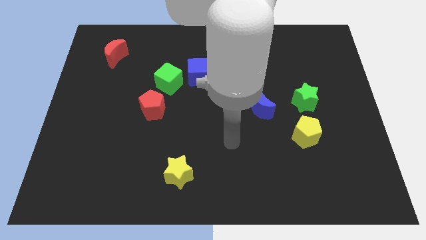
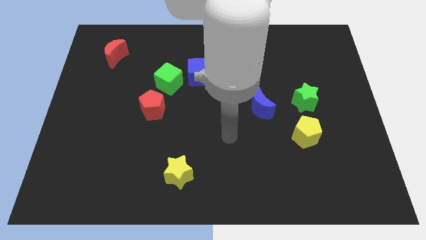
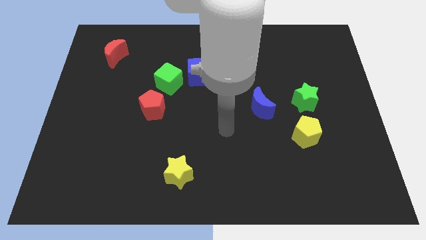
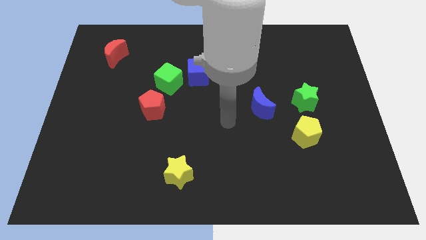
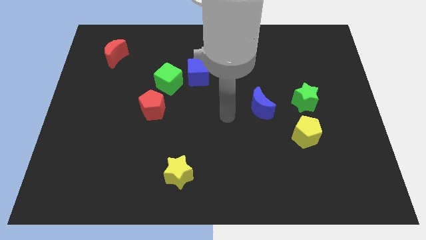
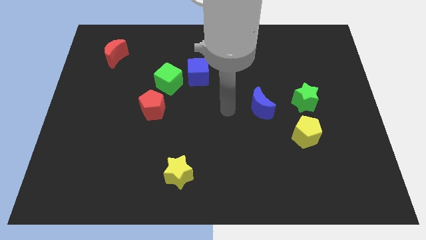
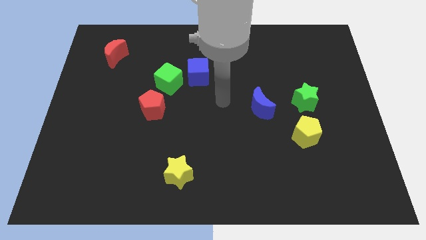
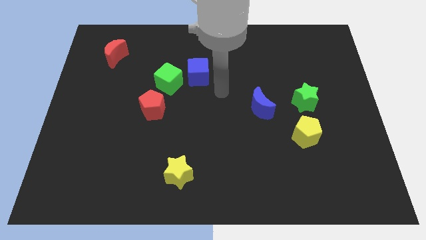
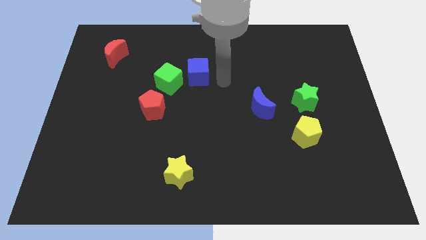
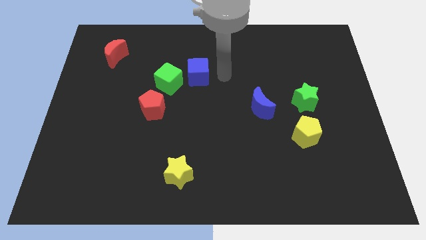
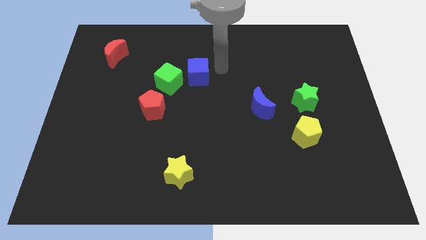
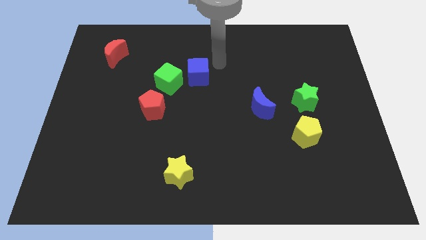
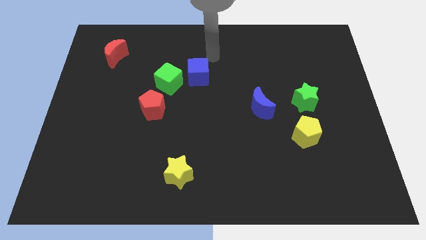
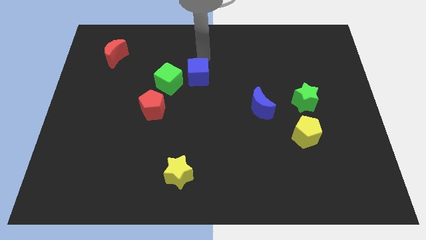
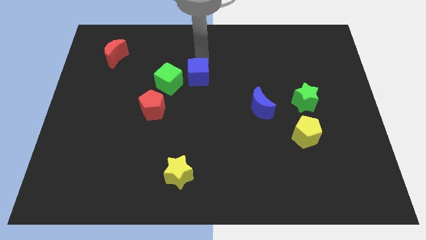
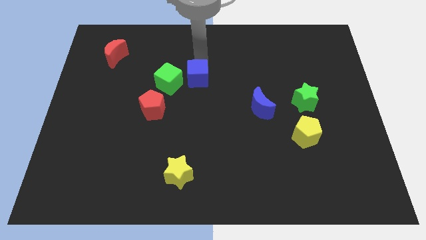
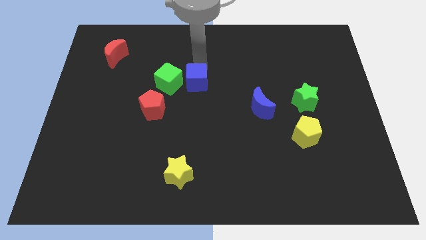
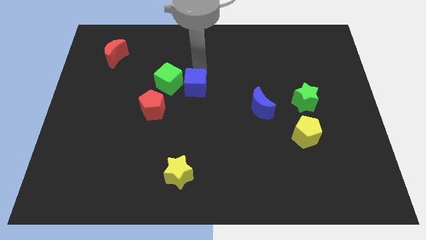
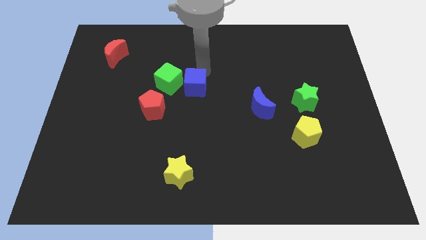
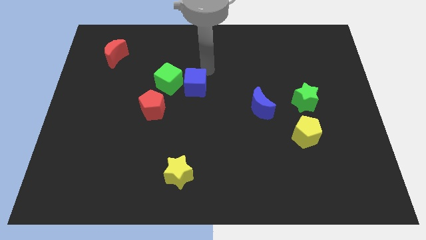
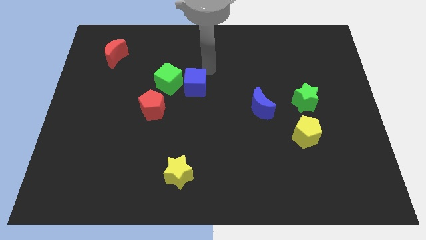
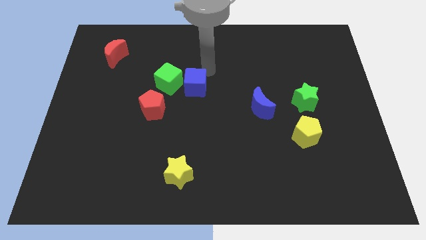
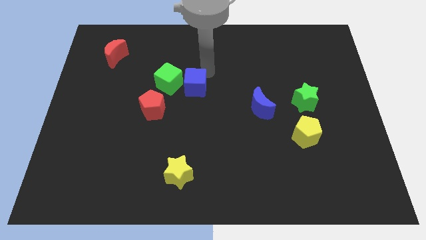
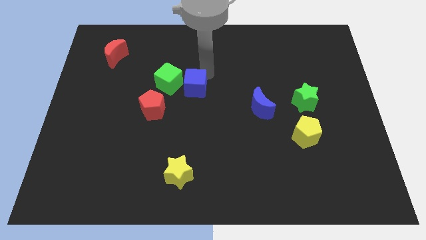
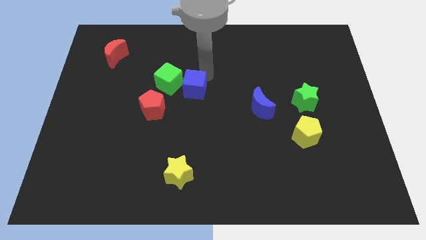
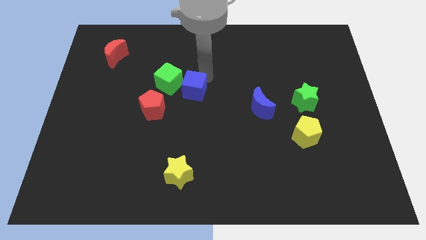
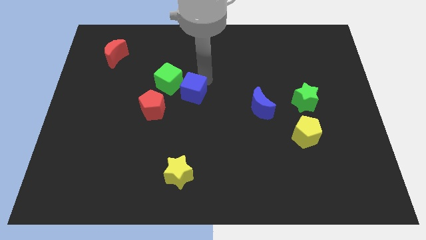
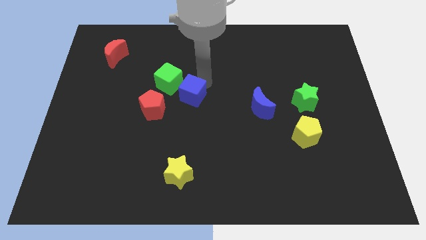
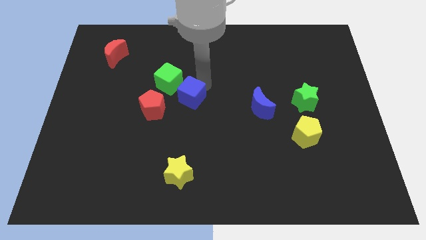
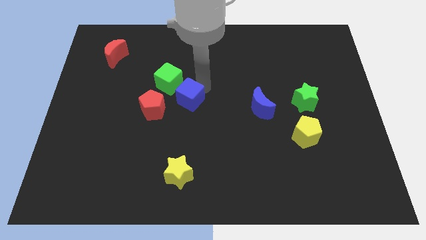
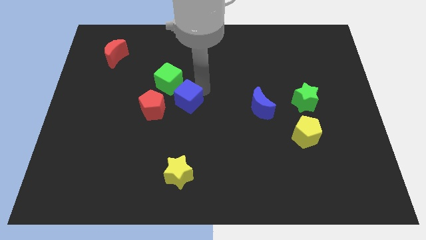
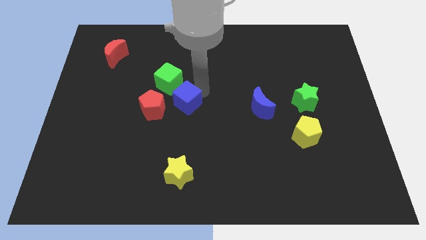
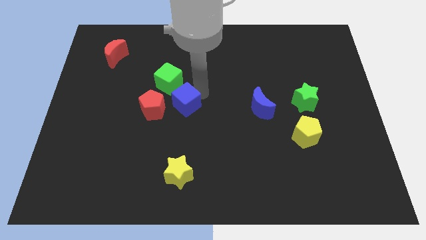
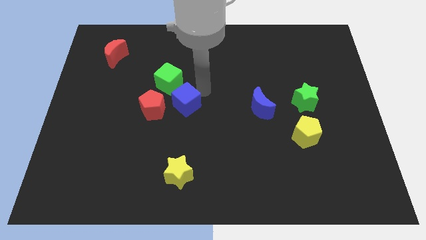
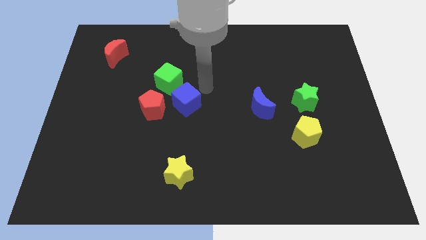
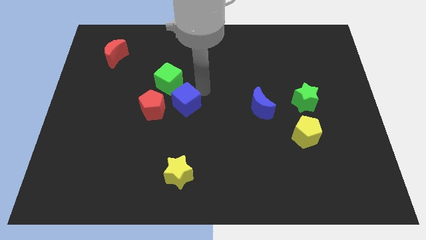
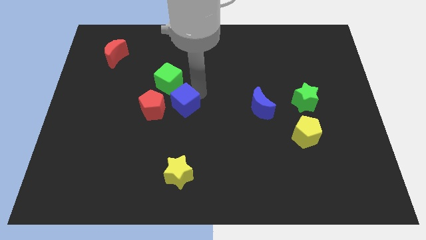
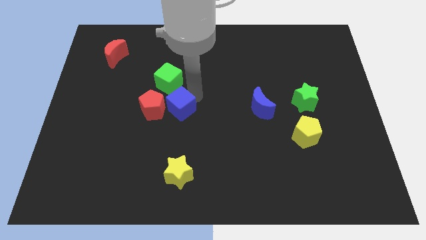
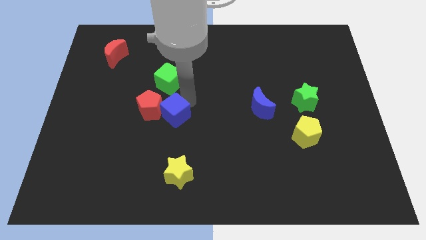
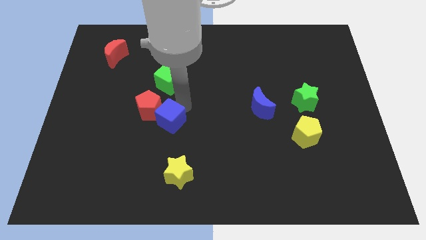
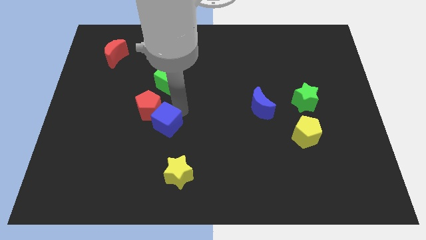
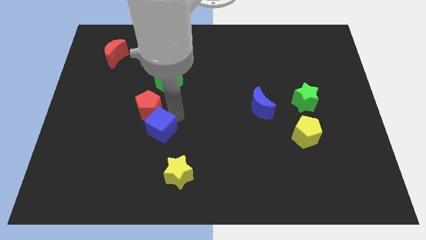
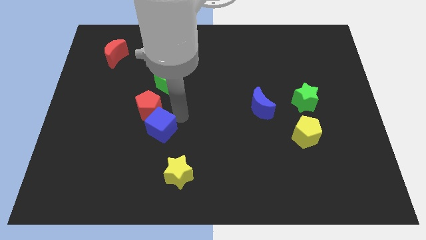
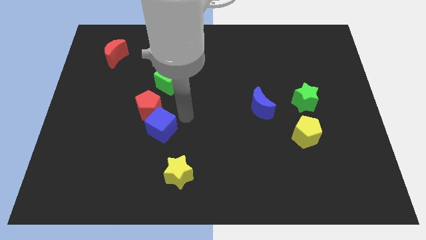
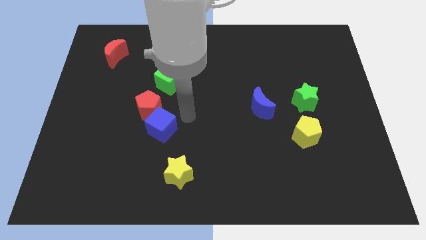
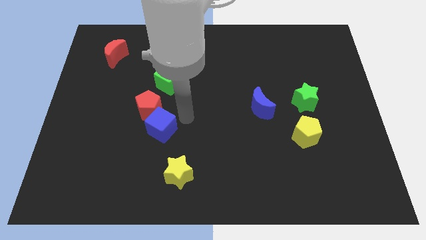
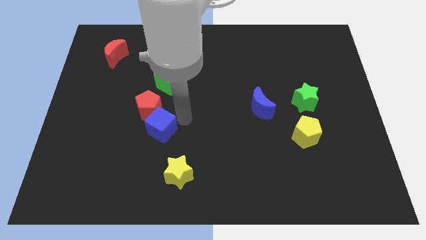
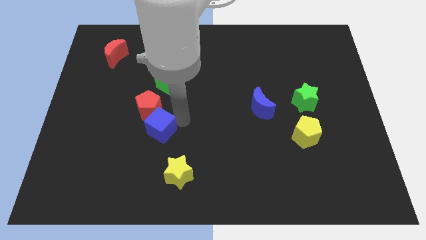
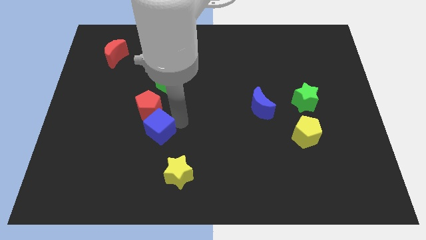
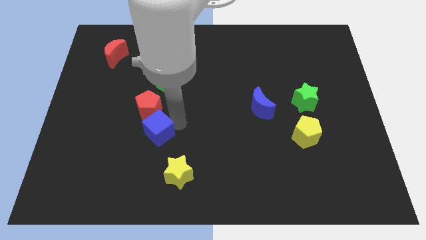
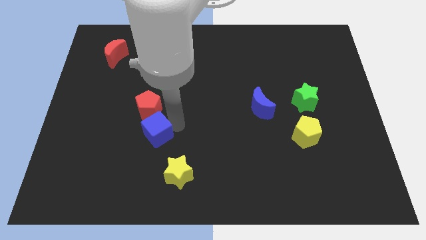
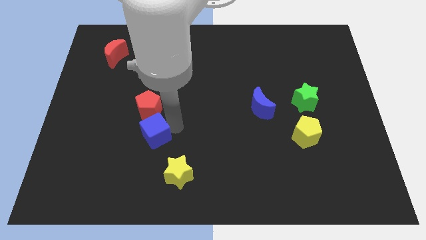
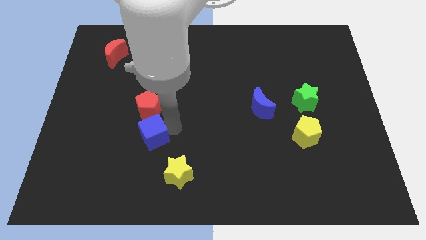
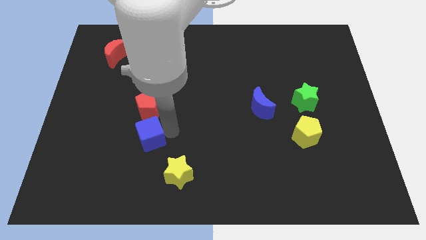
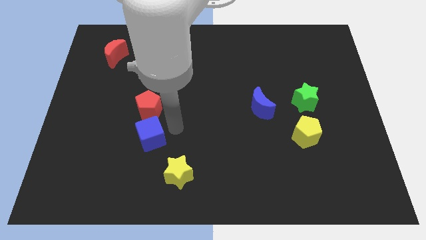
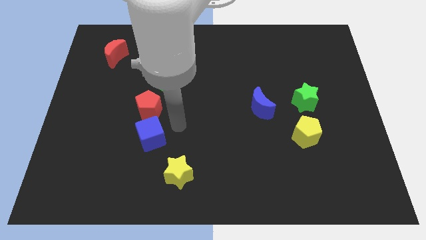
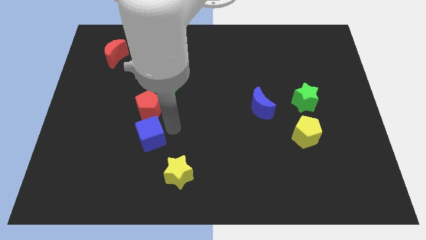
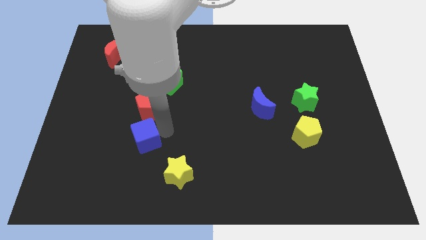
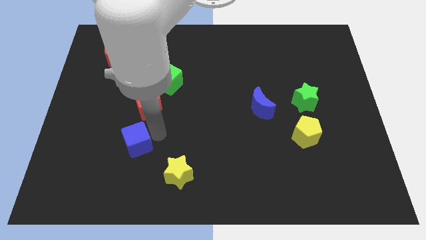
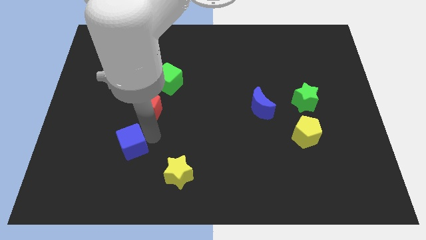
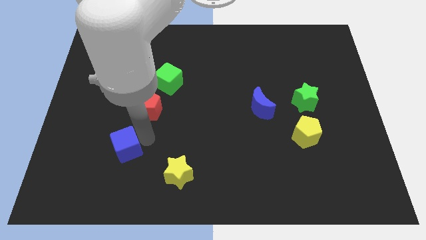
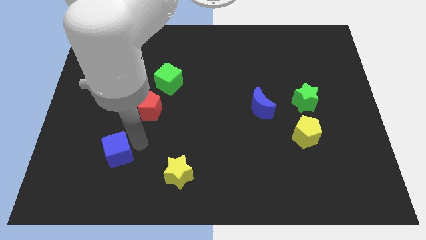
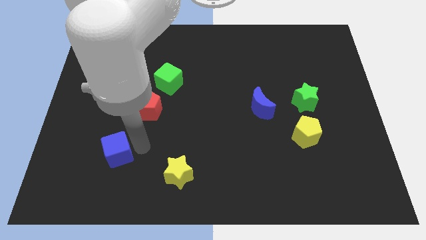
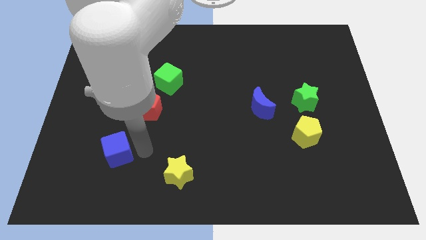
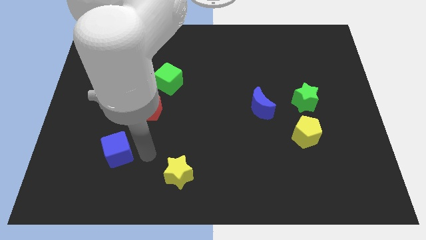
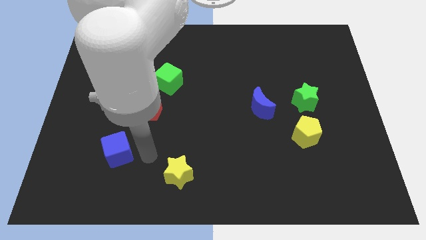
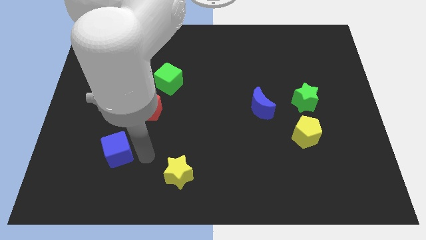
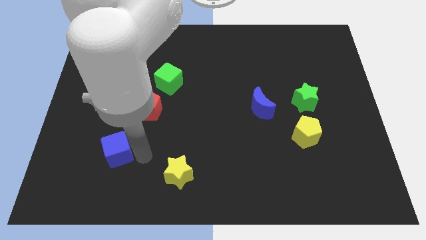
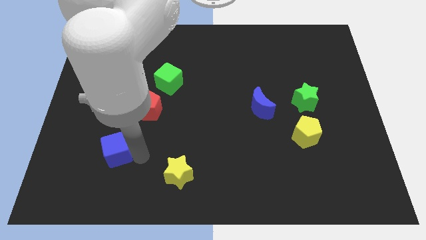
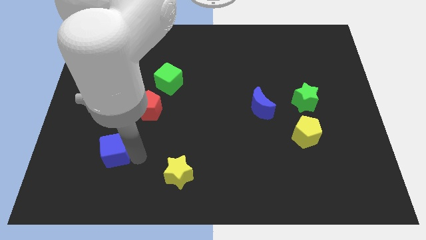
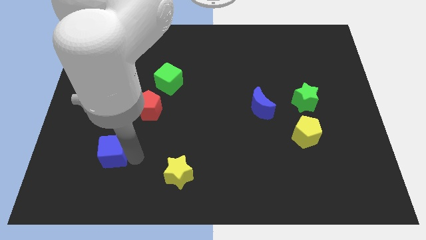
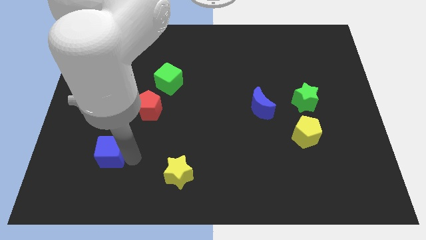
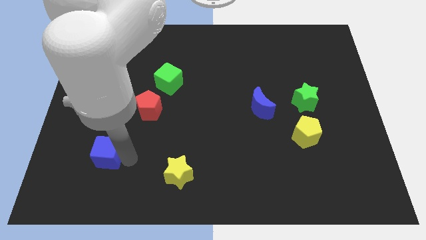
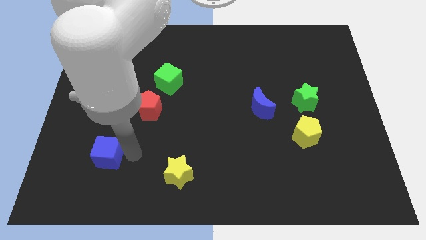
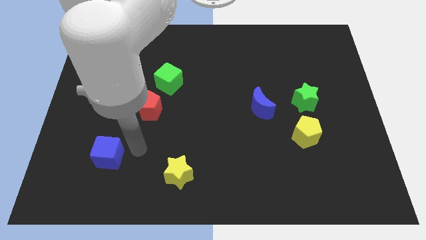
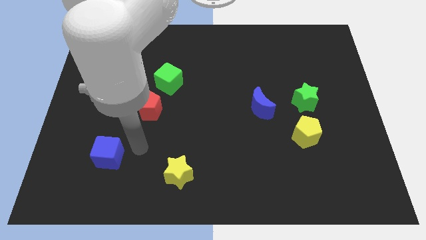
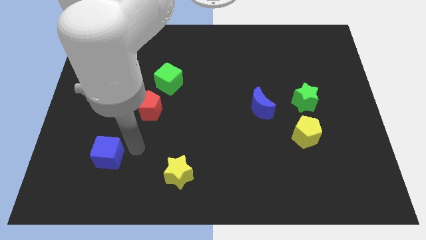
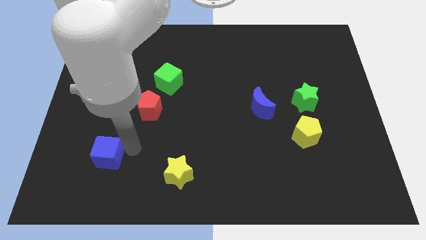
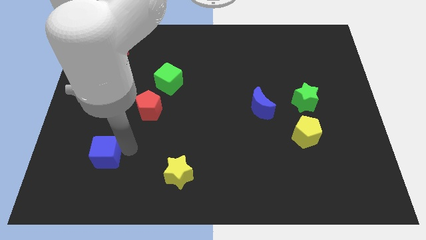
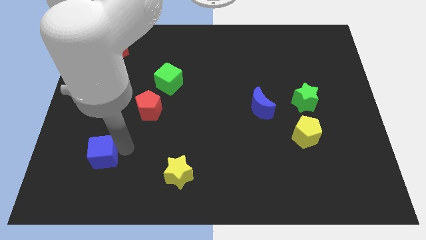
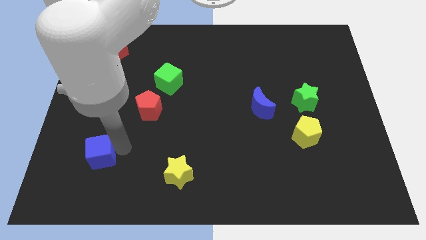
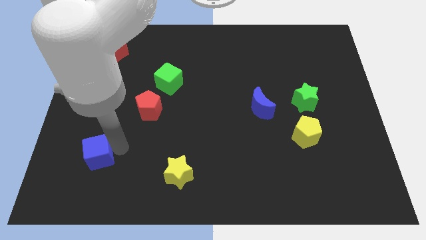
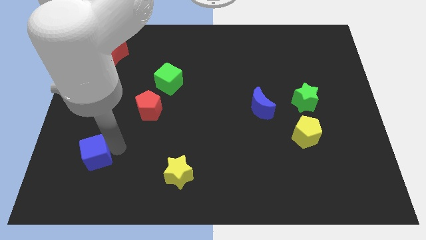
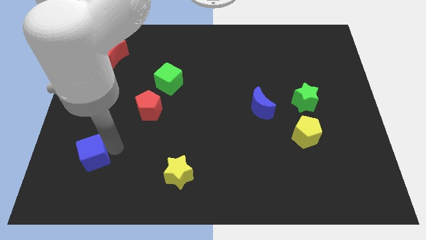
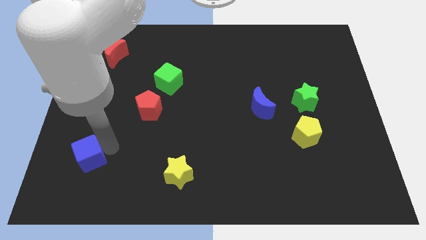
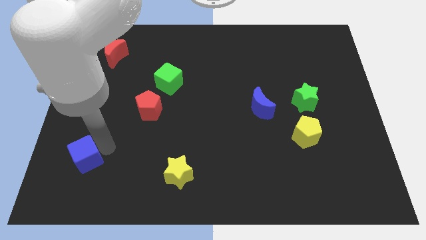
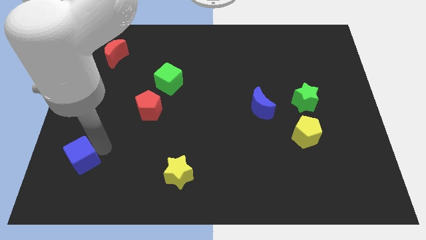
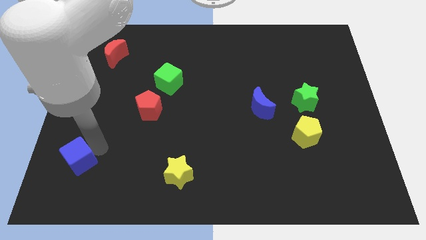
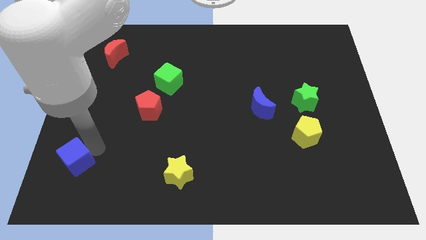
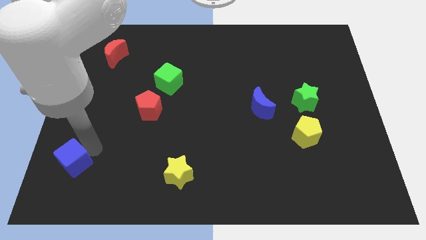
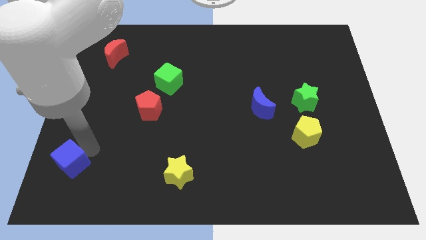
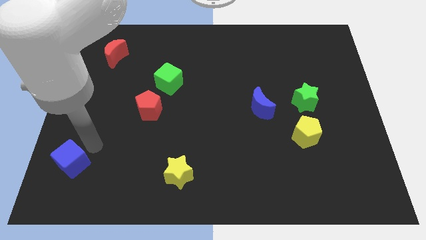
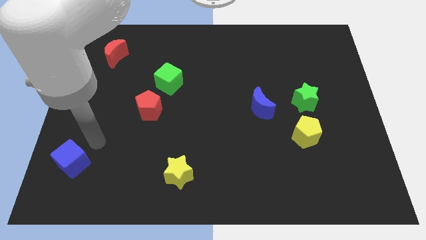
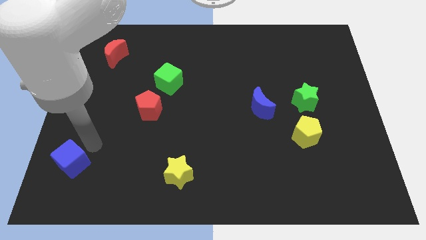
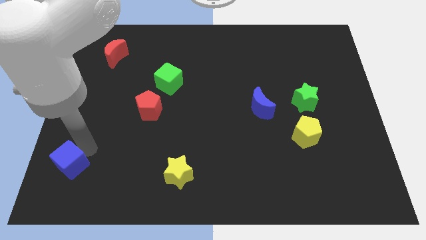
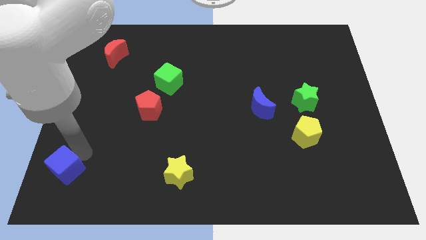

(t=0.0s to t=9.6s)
put the blue cube to the bottom left corner
